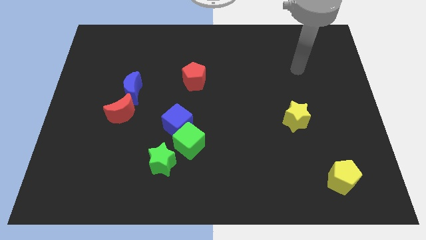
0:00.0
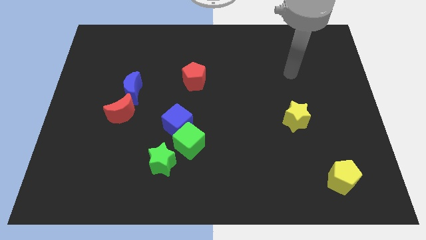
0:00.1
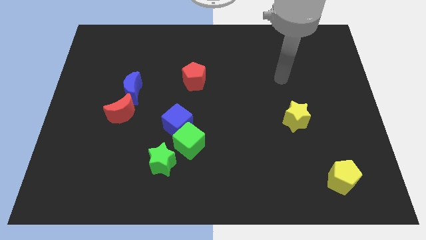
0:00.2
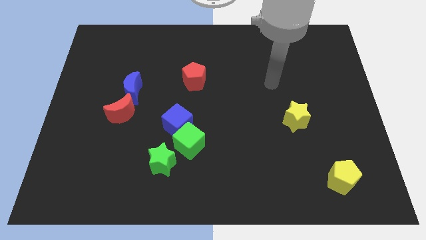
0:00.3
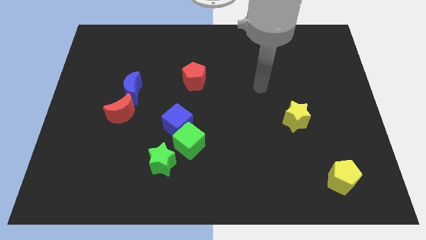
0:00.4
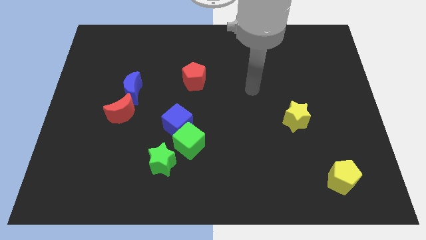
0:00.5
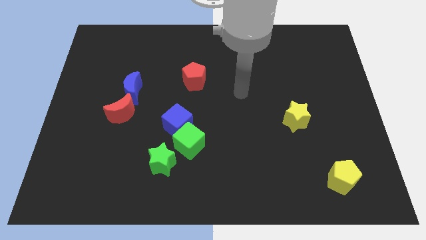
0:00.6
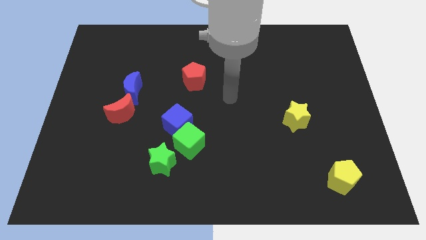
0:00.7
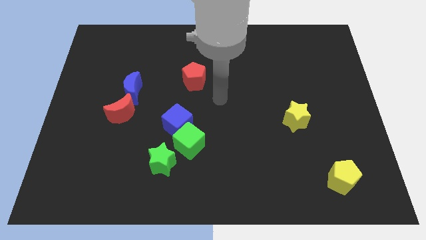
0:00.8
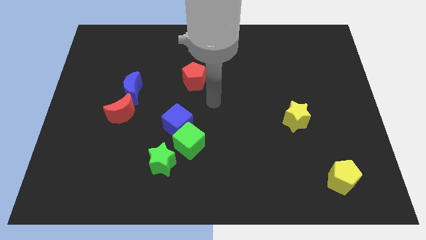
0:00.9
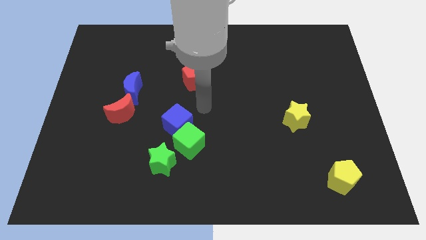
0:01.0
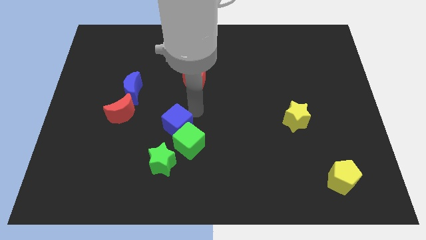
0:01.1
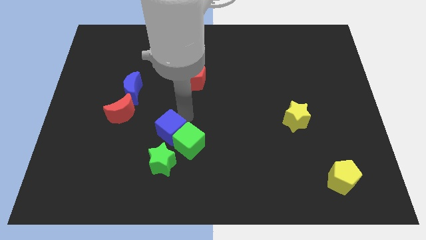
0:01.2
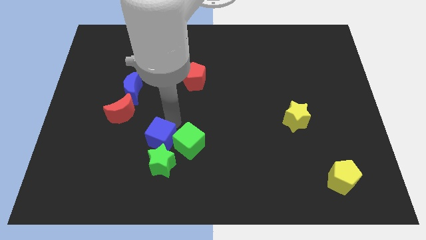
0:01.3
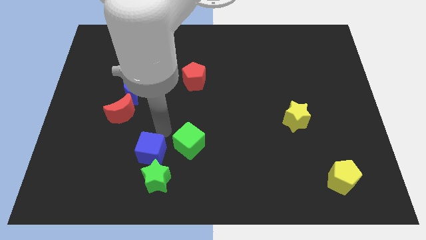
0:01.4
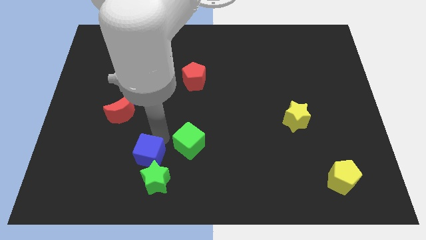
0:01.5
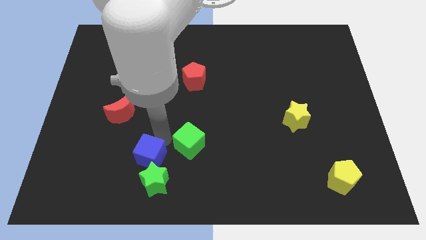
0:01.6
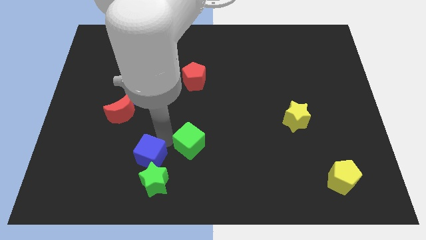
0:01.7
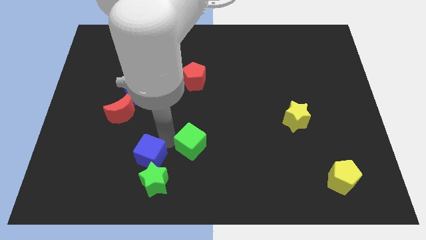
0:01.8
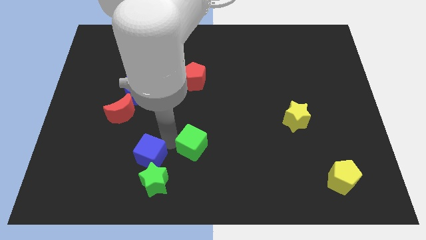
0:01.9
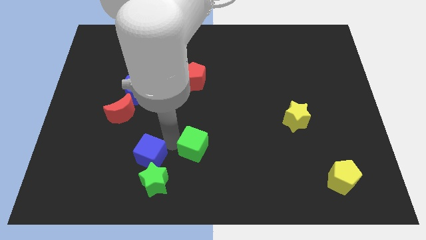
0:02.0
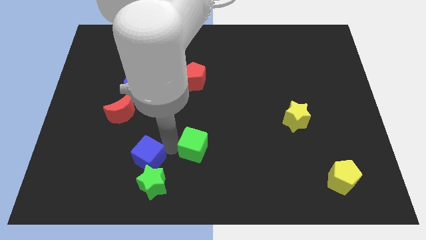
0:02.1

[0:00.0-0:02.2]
pull the green cube apart from the blue cube and green star

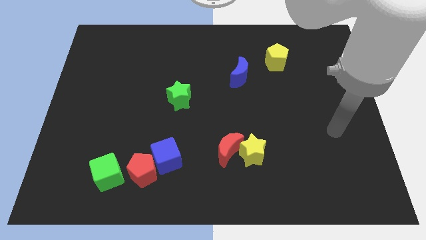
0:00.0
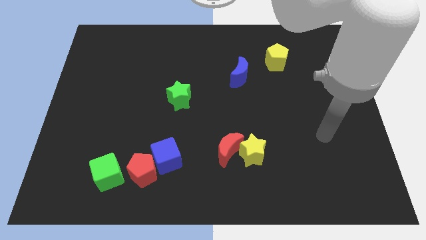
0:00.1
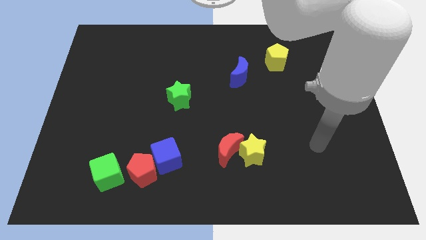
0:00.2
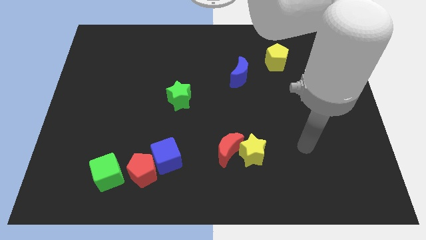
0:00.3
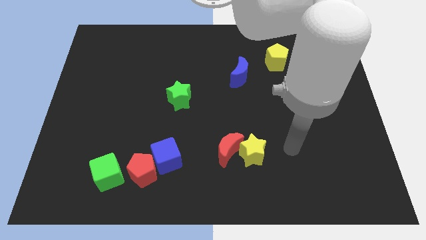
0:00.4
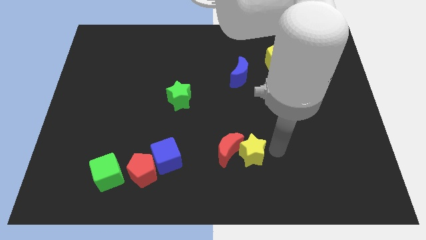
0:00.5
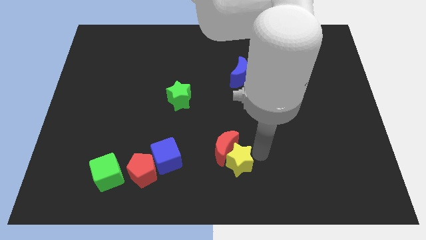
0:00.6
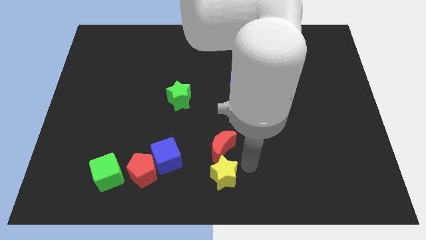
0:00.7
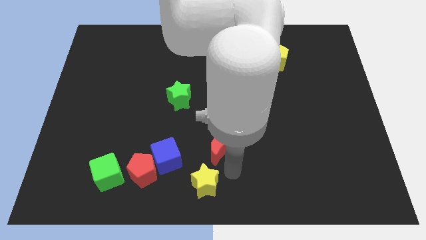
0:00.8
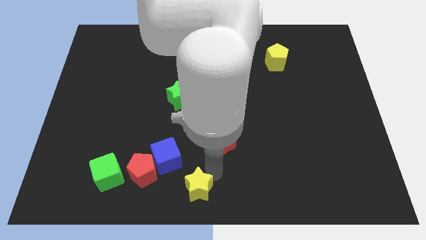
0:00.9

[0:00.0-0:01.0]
separate the red moon from the yellow star

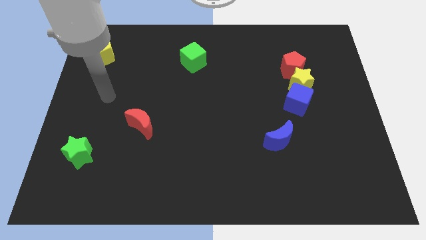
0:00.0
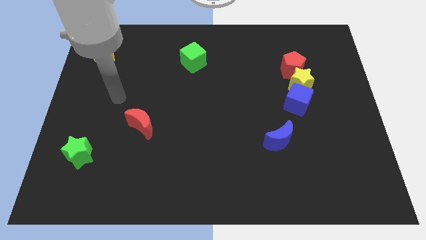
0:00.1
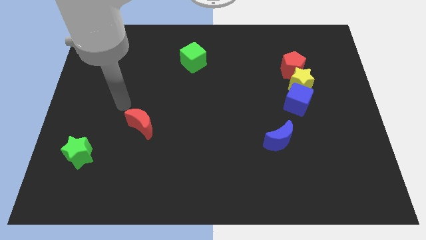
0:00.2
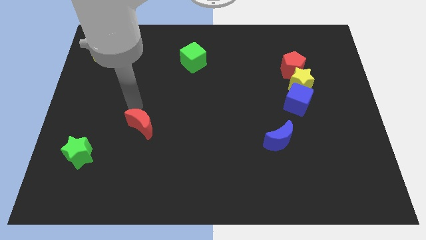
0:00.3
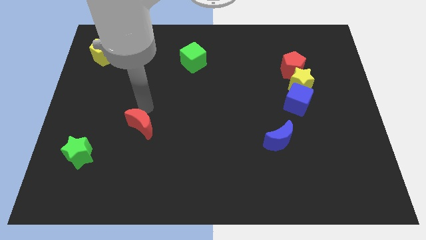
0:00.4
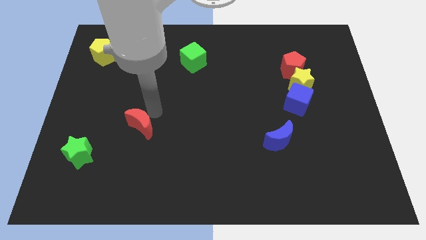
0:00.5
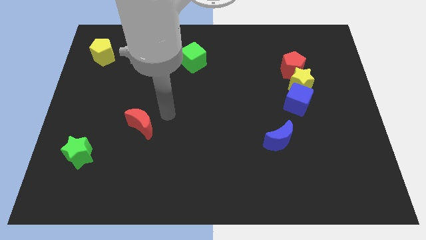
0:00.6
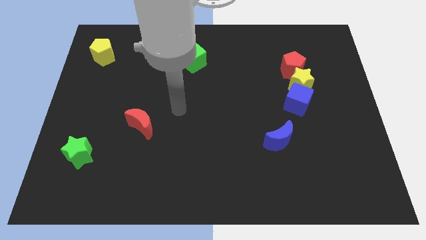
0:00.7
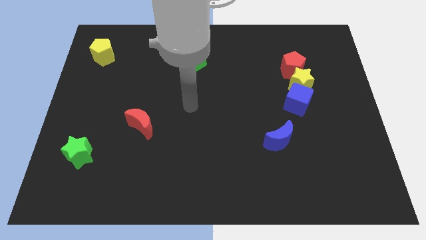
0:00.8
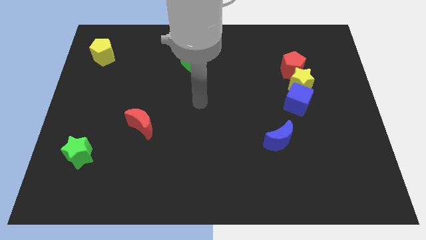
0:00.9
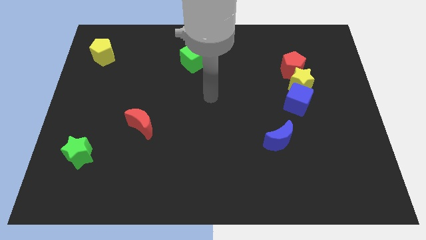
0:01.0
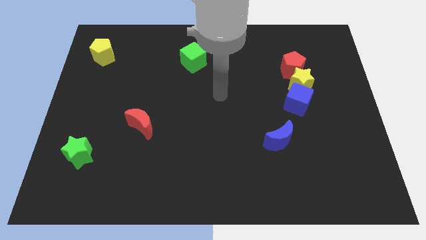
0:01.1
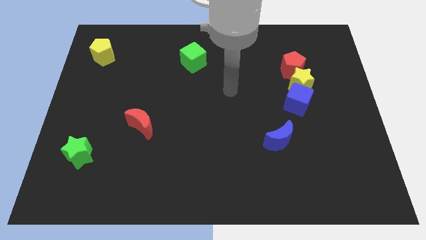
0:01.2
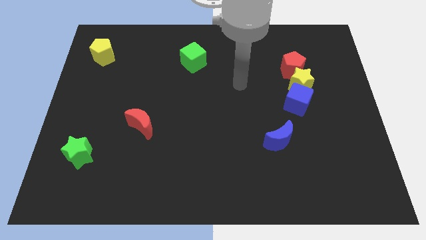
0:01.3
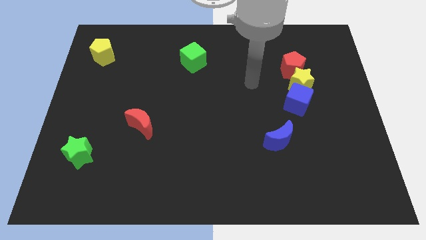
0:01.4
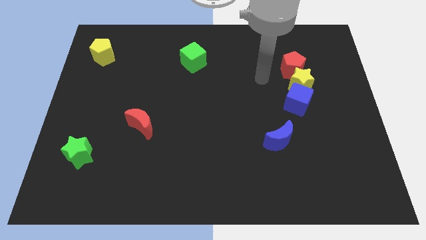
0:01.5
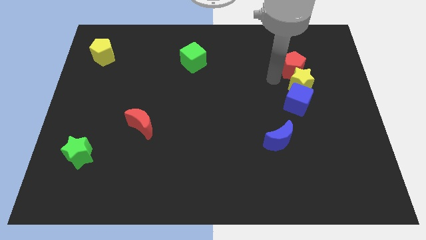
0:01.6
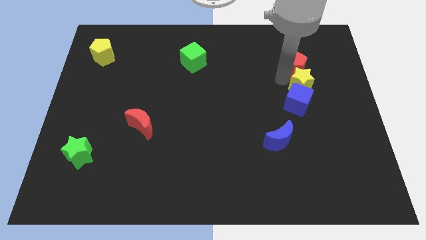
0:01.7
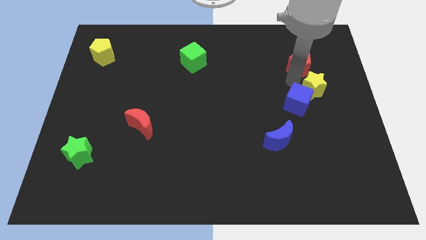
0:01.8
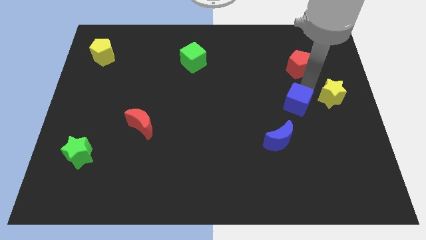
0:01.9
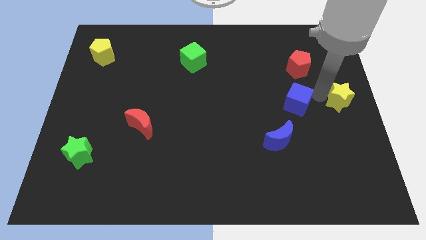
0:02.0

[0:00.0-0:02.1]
move the blue cube away from the yellow star

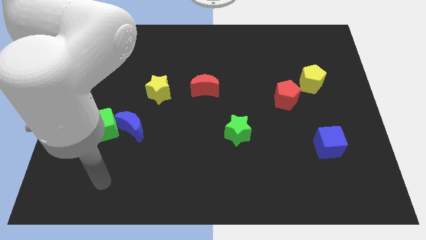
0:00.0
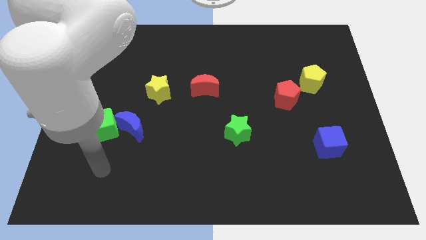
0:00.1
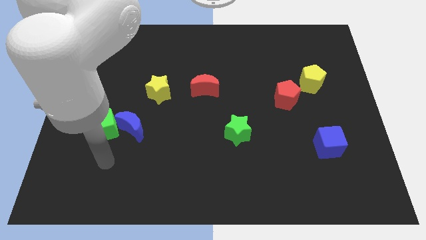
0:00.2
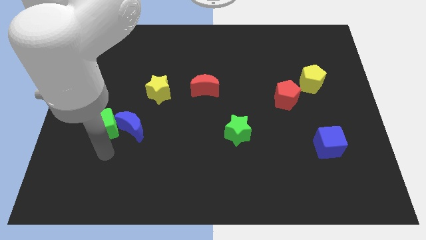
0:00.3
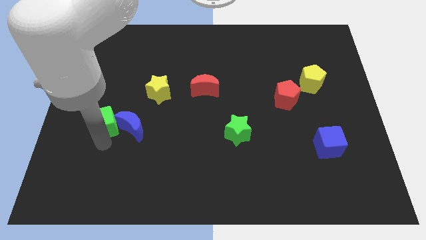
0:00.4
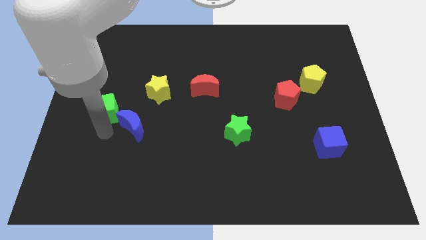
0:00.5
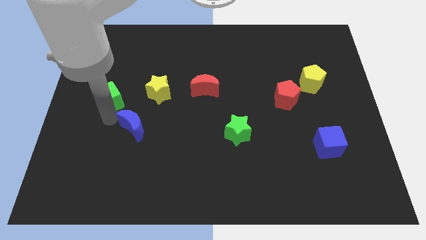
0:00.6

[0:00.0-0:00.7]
pull the blue moon apart from the green cube

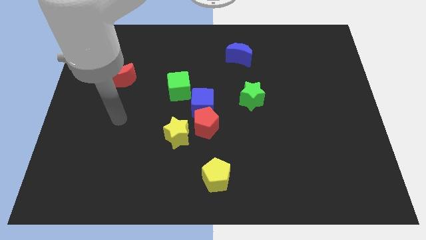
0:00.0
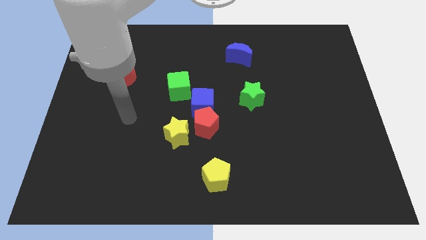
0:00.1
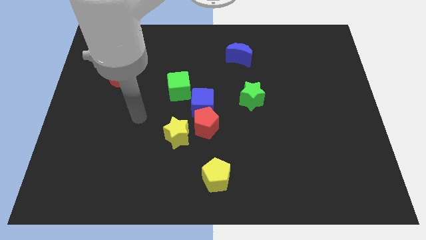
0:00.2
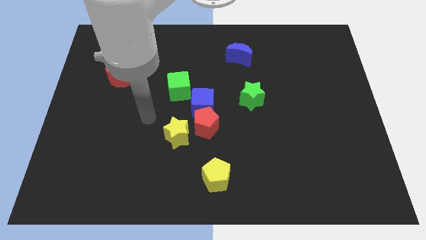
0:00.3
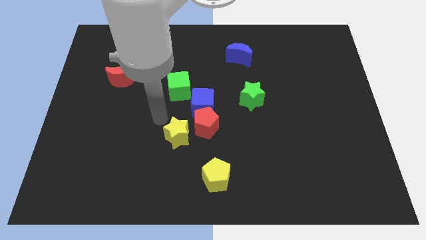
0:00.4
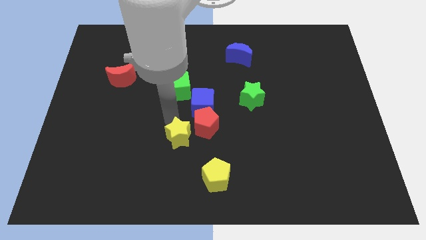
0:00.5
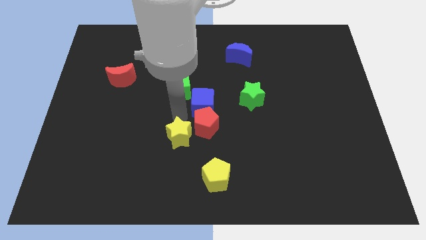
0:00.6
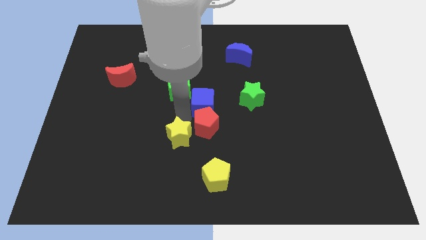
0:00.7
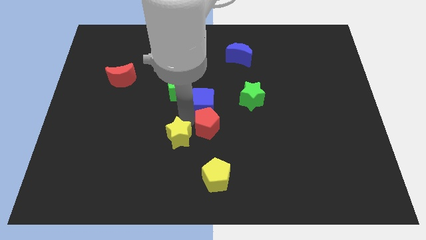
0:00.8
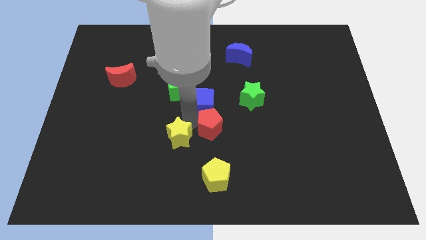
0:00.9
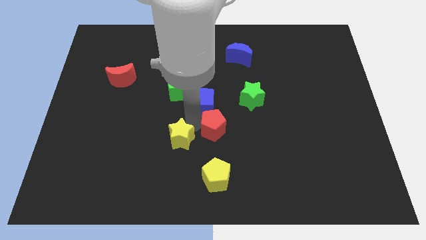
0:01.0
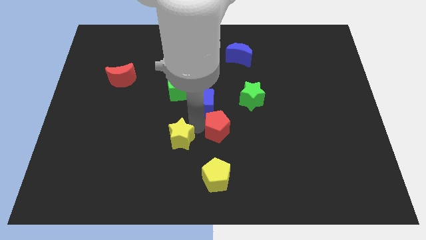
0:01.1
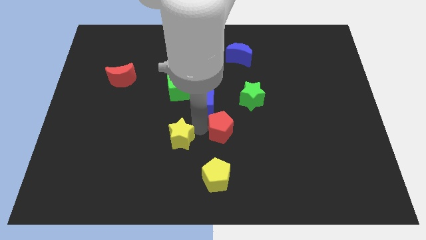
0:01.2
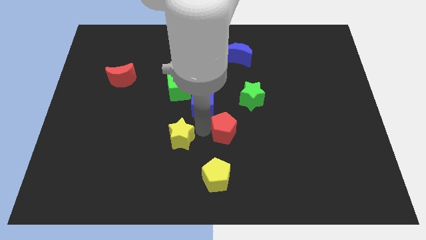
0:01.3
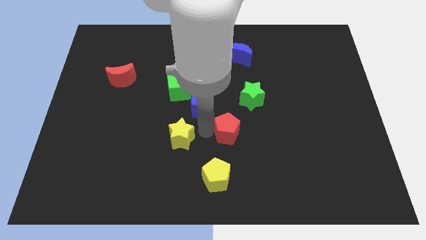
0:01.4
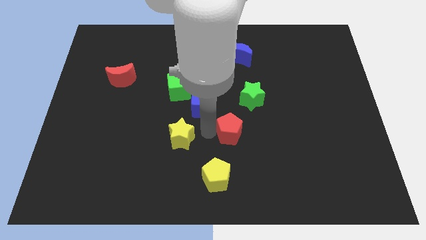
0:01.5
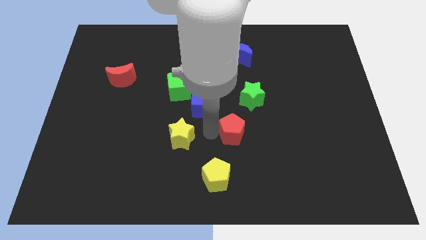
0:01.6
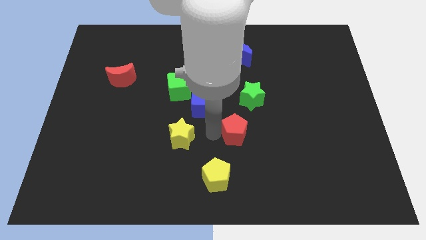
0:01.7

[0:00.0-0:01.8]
pull the red pentagon apart from the blue cube and yellow star

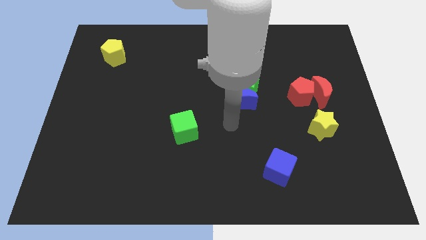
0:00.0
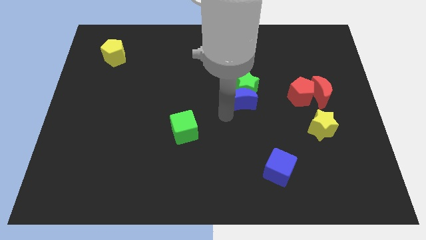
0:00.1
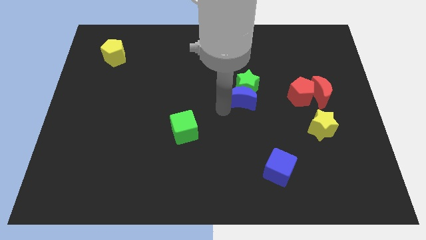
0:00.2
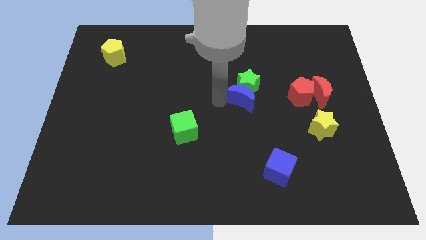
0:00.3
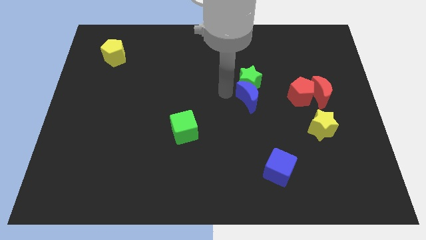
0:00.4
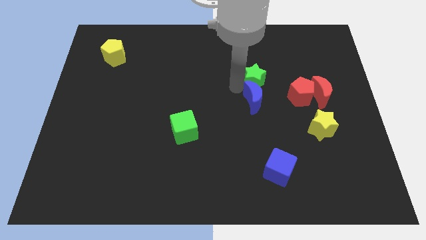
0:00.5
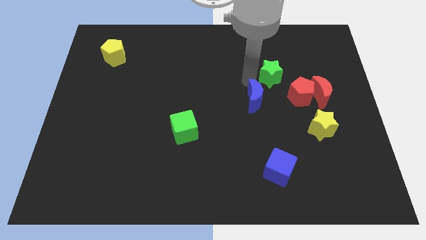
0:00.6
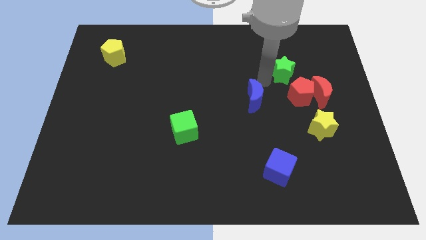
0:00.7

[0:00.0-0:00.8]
separate the blue moon from the green star

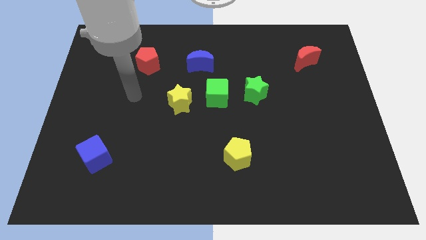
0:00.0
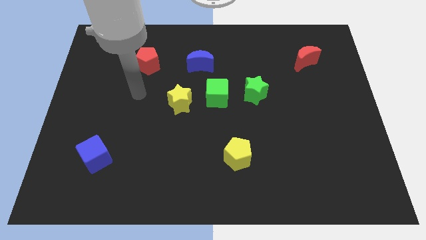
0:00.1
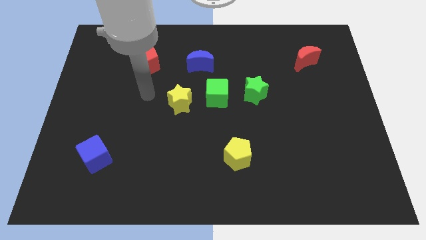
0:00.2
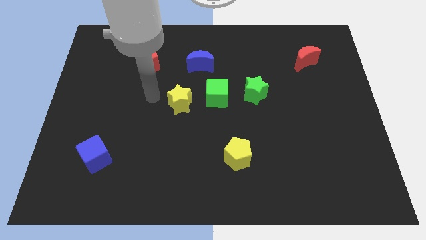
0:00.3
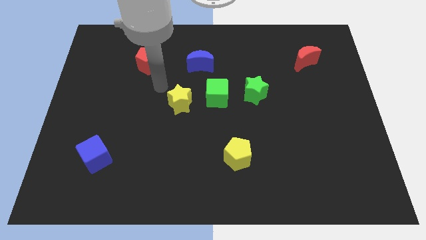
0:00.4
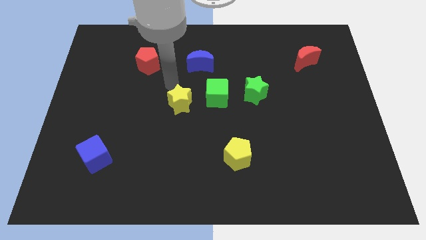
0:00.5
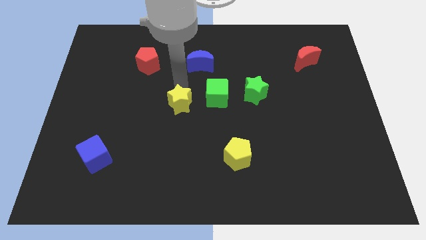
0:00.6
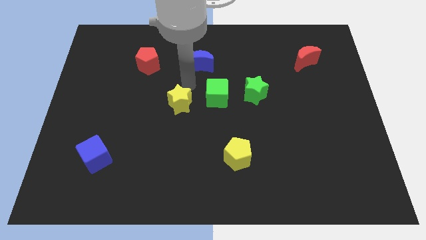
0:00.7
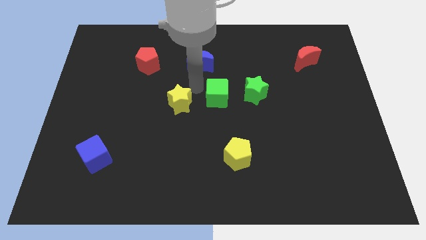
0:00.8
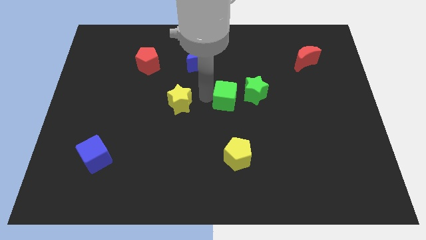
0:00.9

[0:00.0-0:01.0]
move the yellow star away from the green cube
